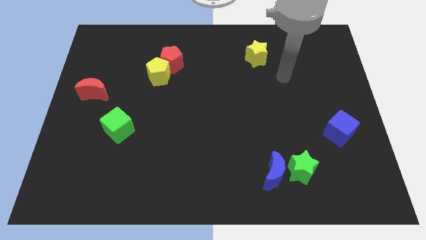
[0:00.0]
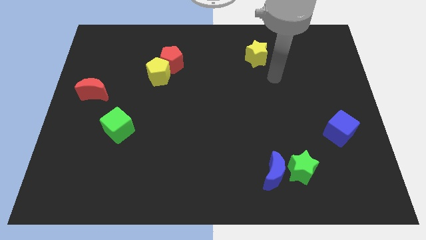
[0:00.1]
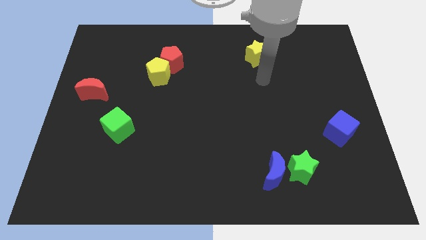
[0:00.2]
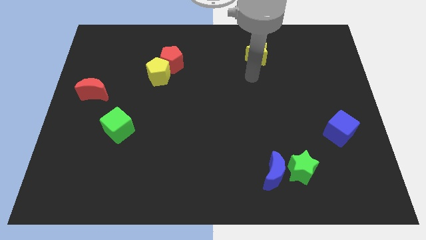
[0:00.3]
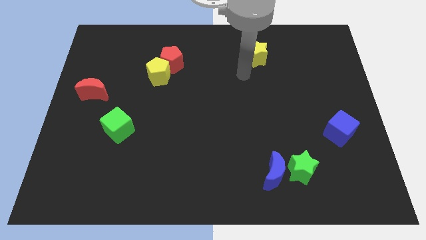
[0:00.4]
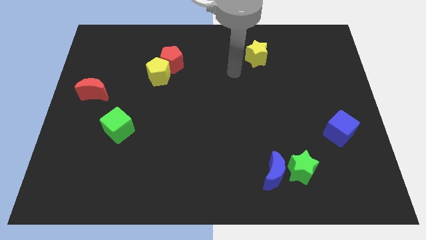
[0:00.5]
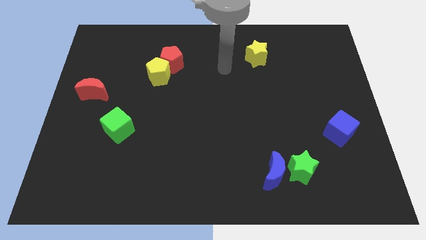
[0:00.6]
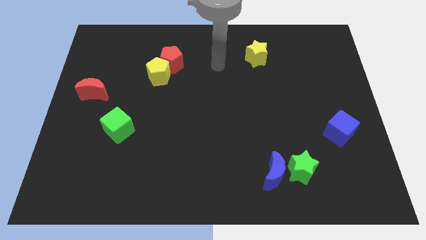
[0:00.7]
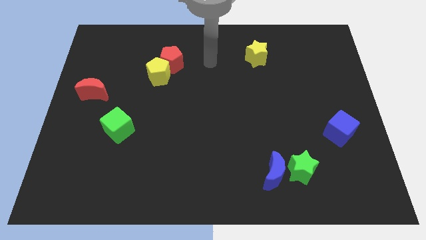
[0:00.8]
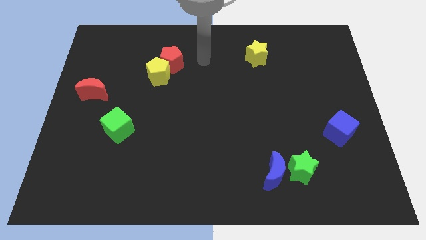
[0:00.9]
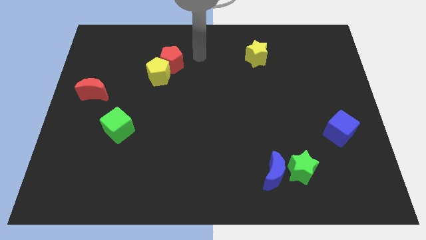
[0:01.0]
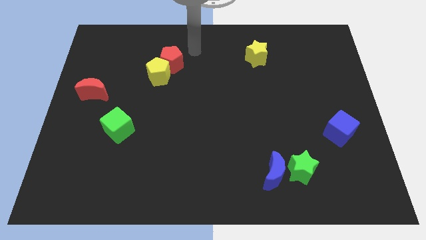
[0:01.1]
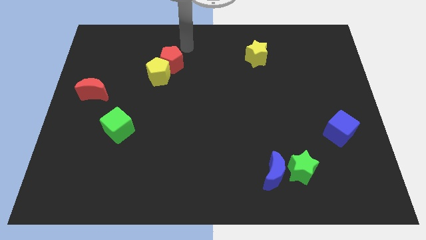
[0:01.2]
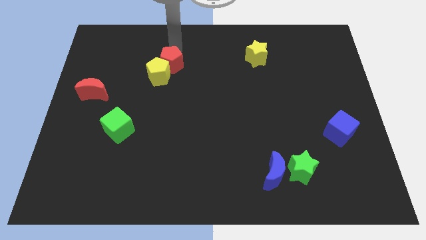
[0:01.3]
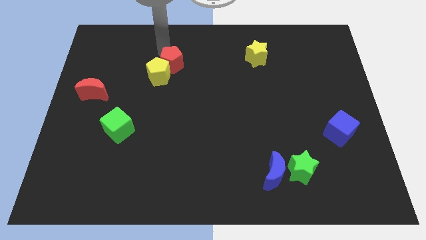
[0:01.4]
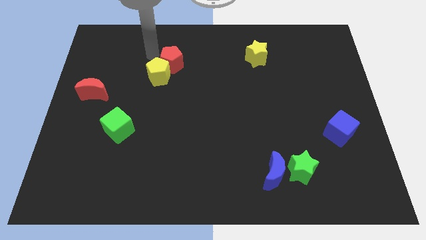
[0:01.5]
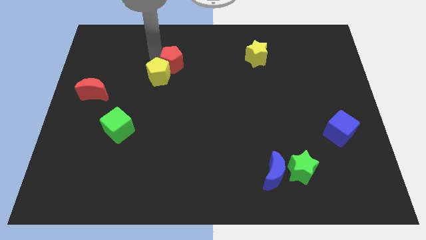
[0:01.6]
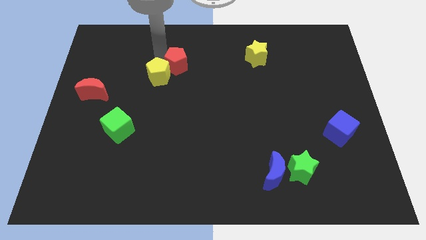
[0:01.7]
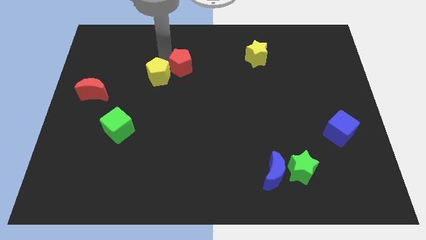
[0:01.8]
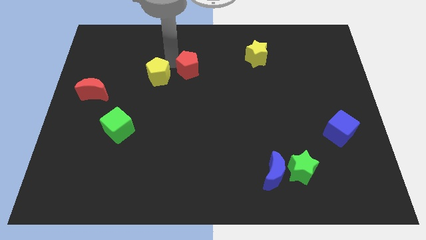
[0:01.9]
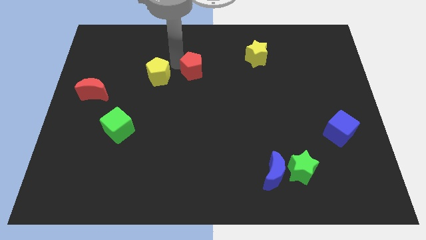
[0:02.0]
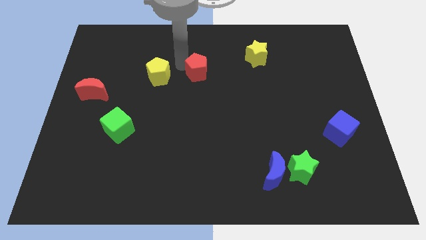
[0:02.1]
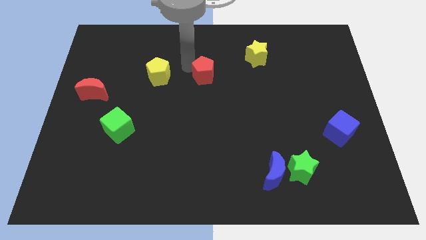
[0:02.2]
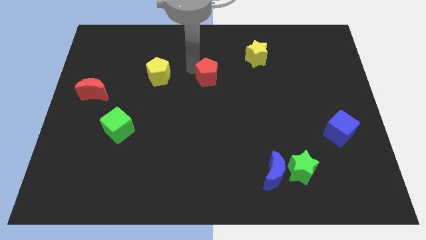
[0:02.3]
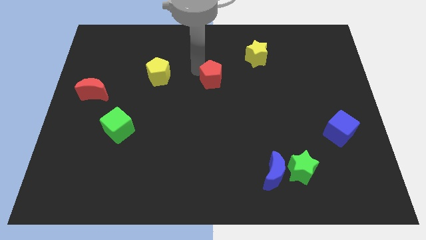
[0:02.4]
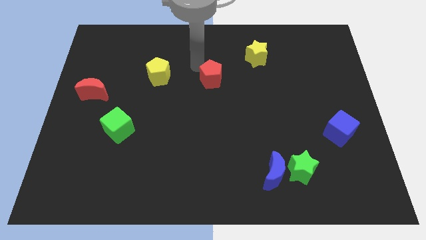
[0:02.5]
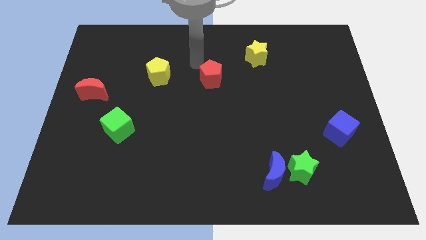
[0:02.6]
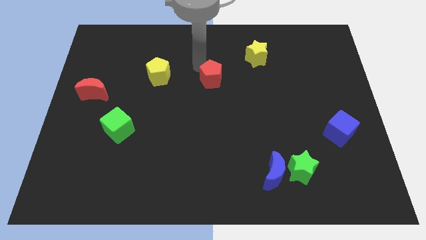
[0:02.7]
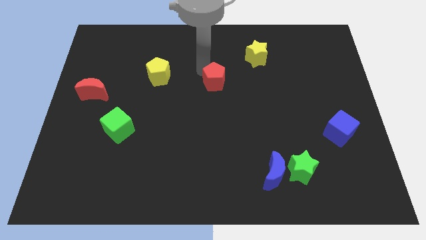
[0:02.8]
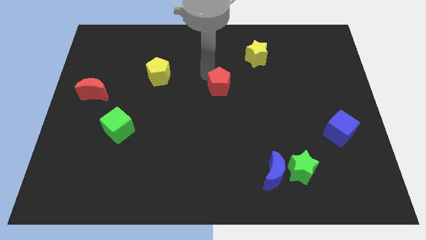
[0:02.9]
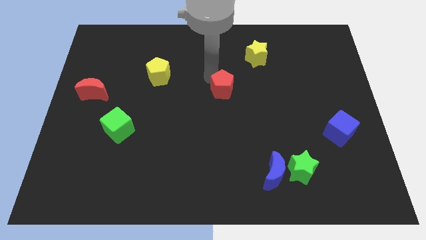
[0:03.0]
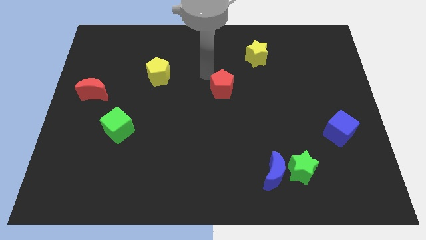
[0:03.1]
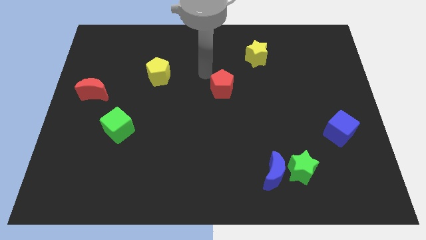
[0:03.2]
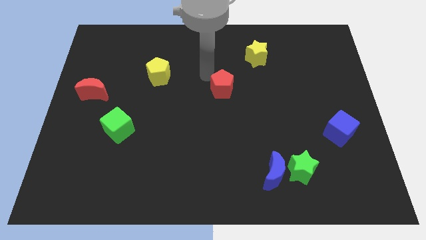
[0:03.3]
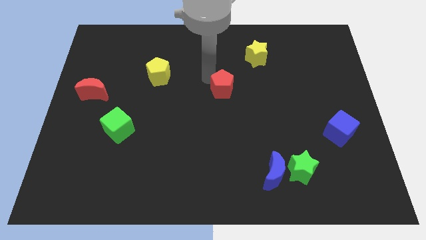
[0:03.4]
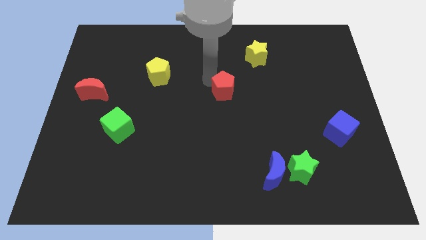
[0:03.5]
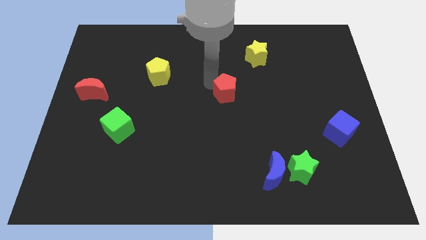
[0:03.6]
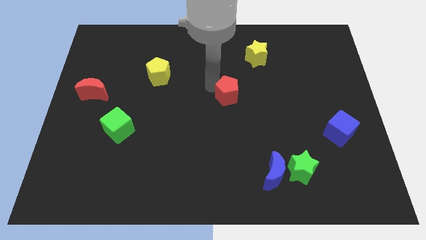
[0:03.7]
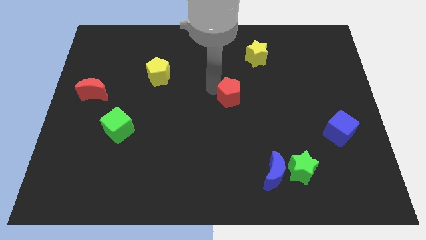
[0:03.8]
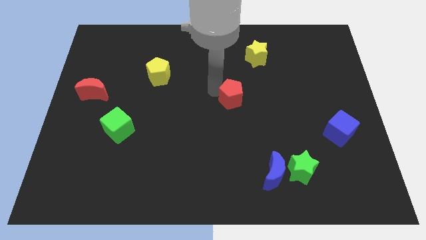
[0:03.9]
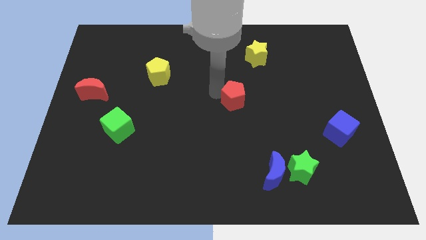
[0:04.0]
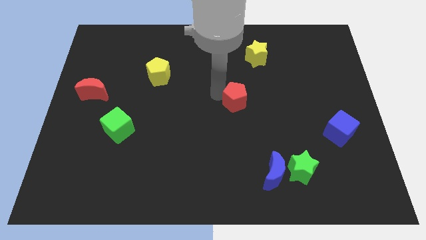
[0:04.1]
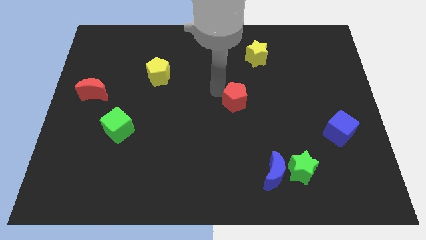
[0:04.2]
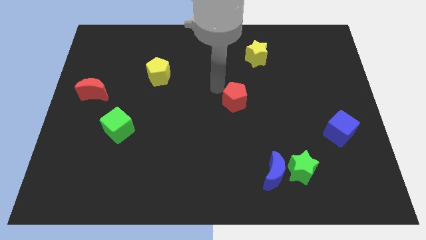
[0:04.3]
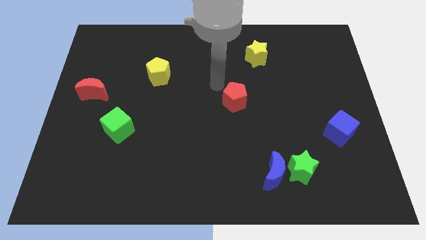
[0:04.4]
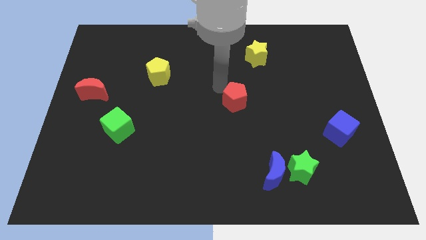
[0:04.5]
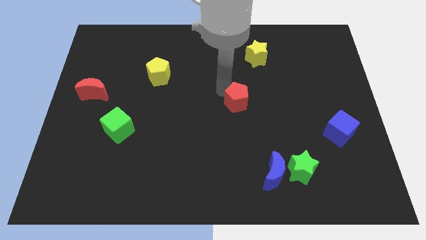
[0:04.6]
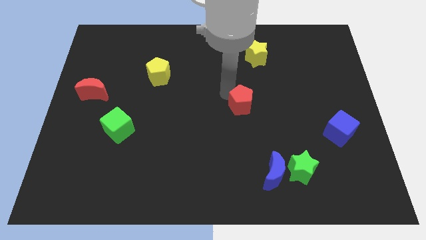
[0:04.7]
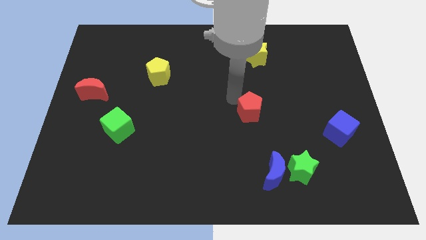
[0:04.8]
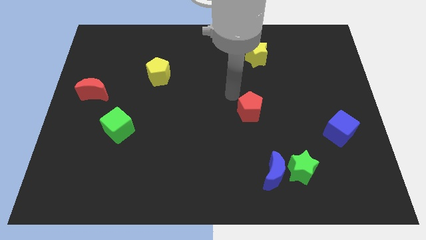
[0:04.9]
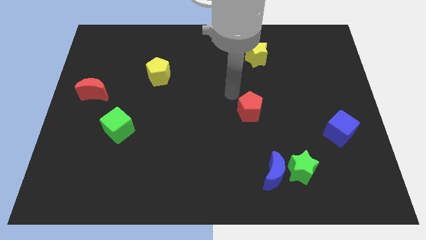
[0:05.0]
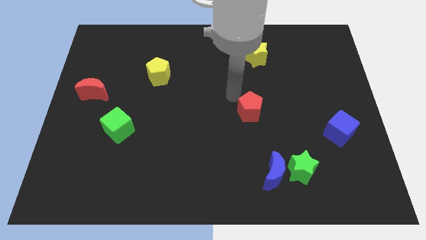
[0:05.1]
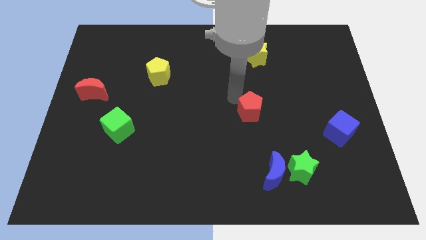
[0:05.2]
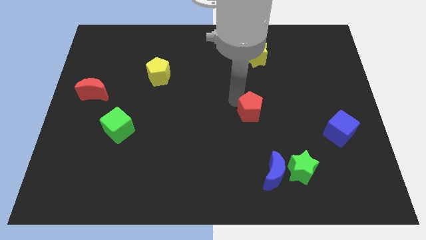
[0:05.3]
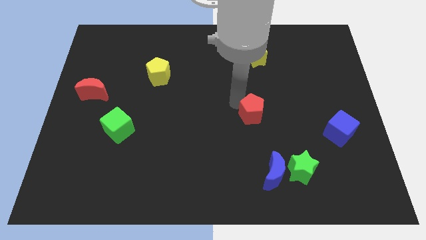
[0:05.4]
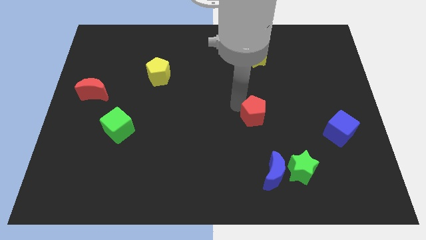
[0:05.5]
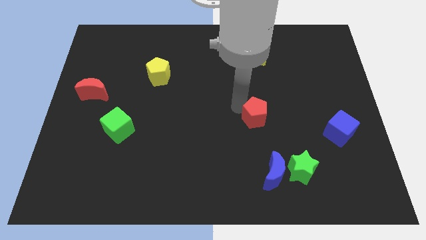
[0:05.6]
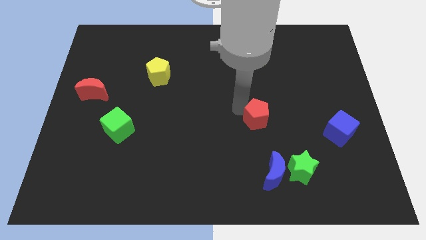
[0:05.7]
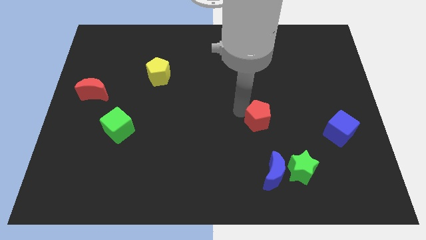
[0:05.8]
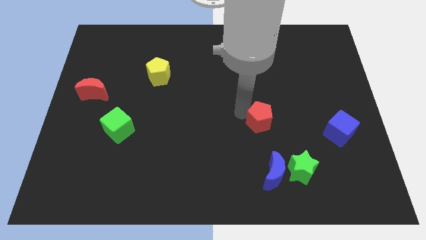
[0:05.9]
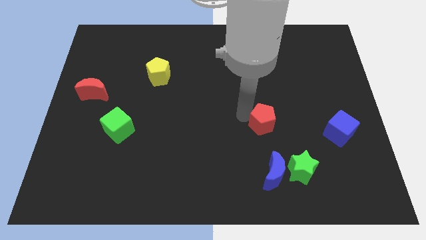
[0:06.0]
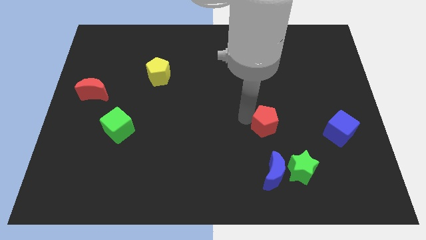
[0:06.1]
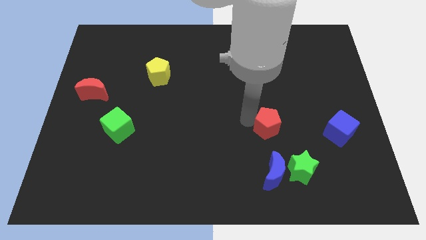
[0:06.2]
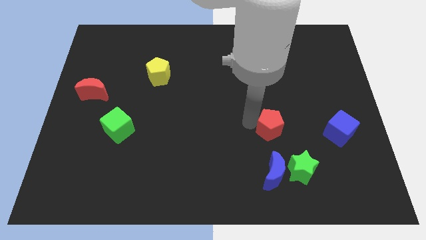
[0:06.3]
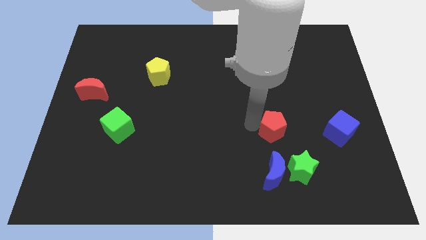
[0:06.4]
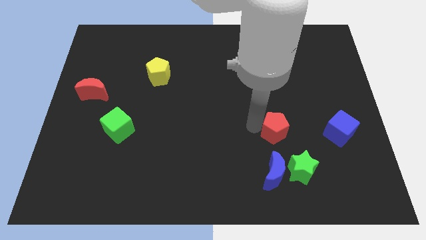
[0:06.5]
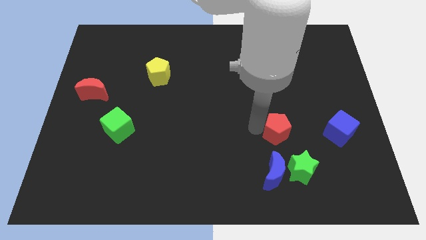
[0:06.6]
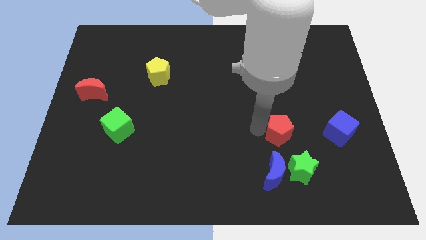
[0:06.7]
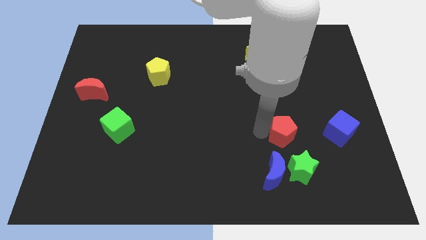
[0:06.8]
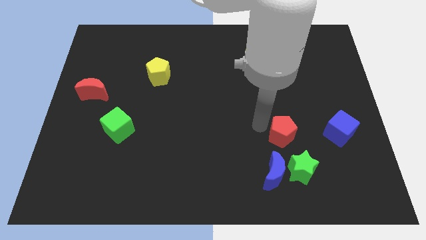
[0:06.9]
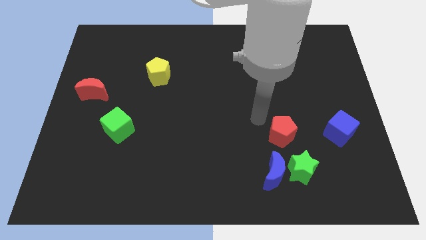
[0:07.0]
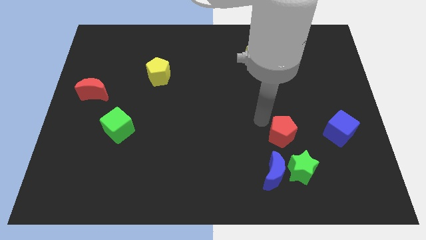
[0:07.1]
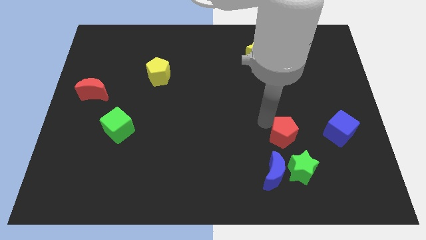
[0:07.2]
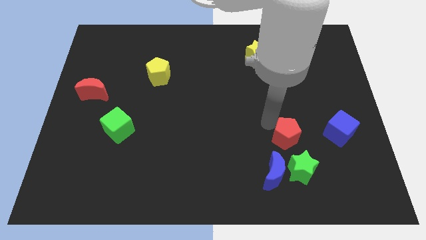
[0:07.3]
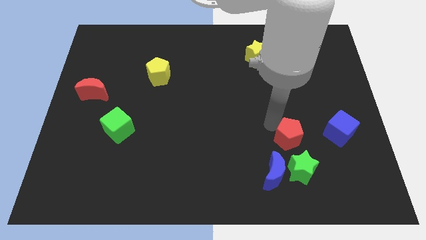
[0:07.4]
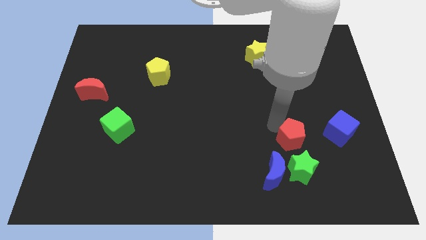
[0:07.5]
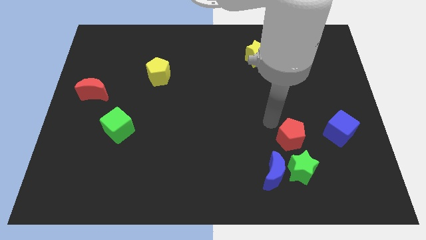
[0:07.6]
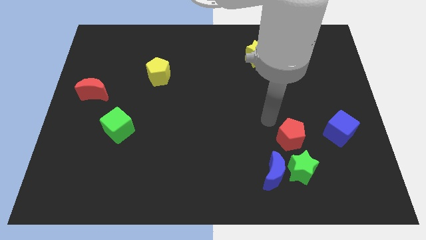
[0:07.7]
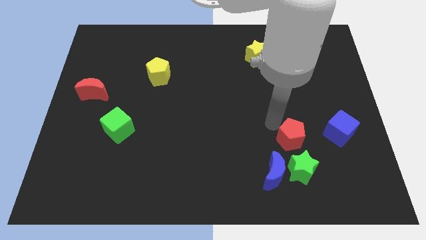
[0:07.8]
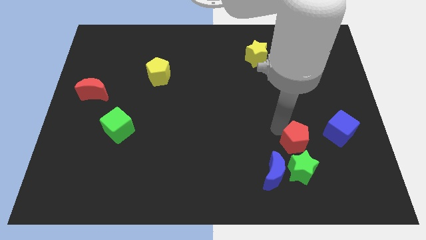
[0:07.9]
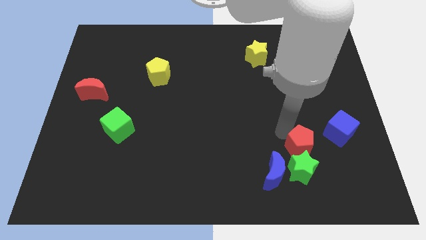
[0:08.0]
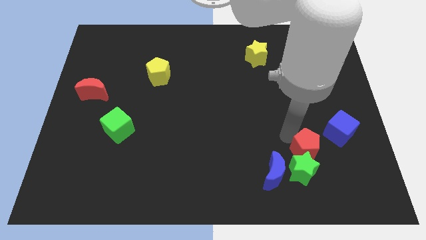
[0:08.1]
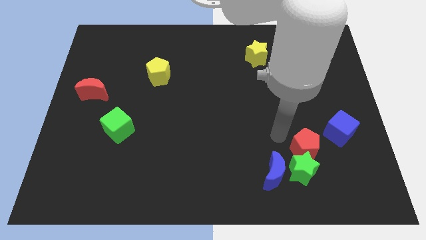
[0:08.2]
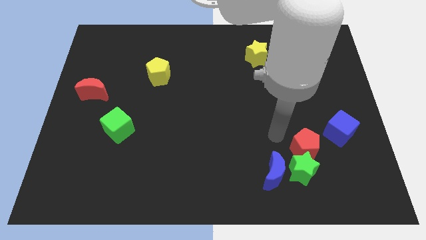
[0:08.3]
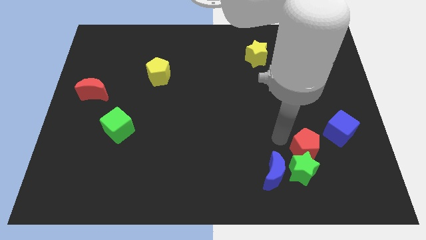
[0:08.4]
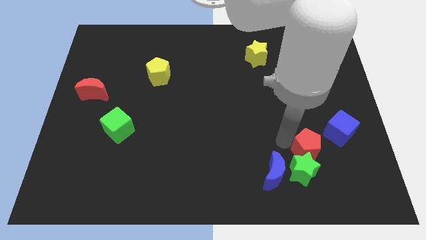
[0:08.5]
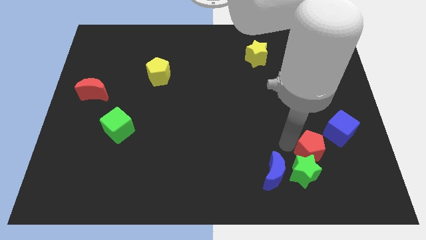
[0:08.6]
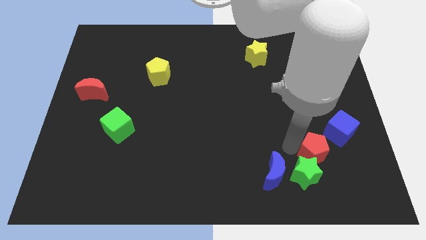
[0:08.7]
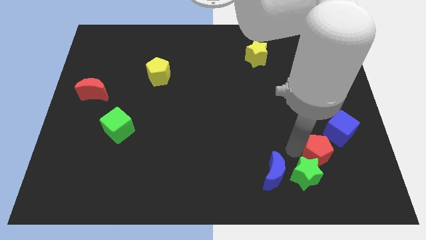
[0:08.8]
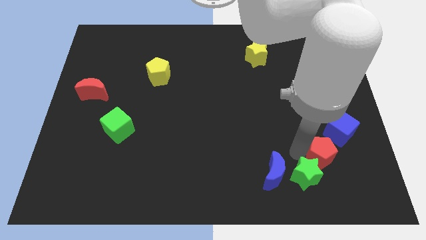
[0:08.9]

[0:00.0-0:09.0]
push the red pentagon just right of the green star
